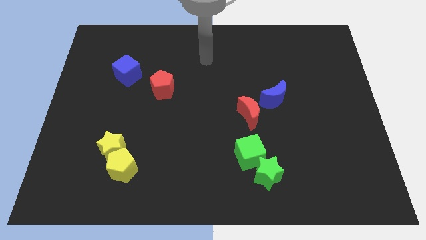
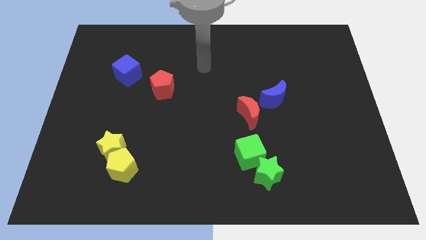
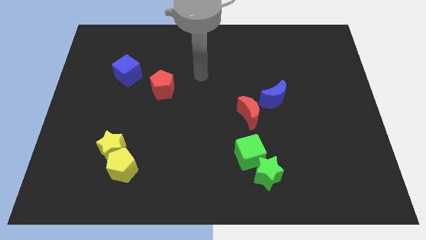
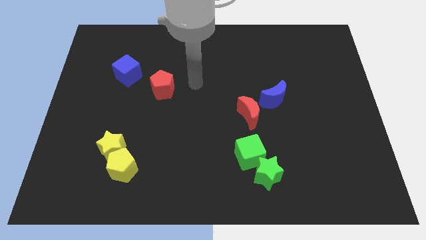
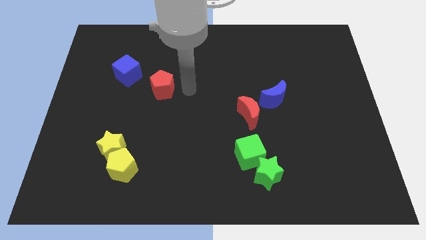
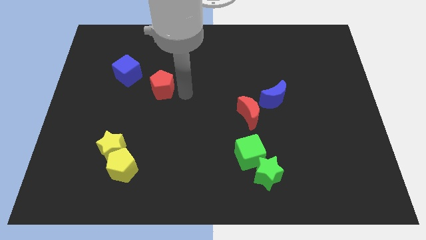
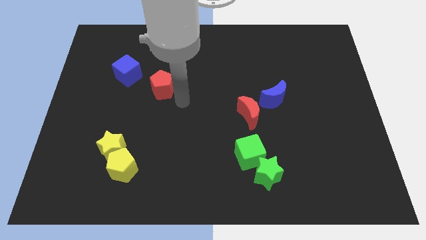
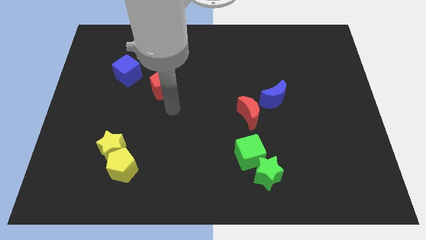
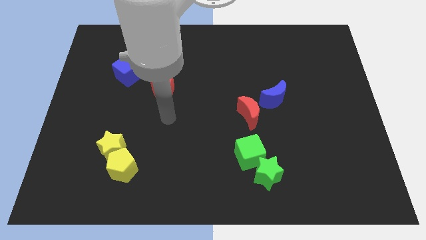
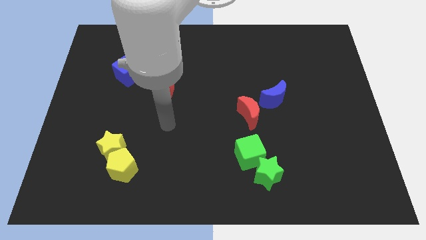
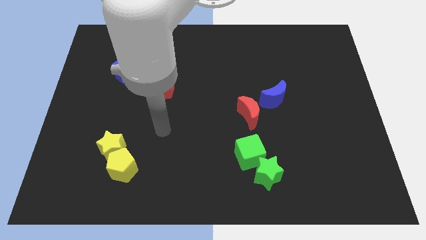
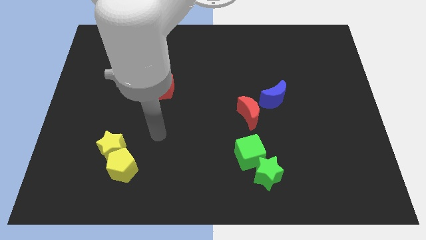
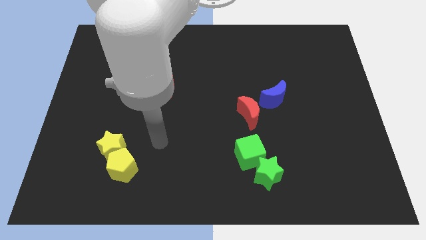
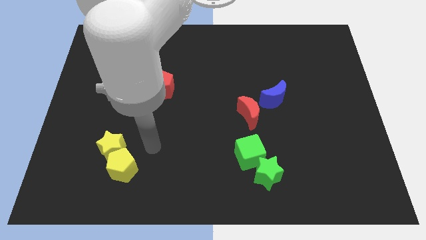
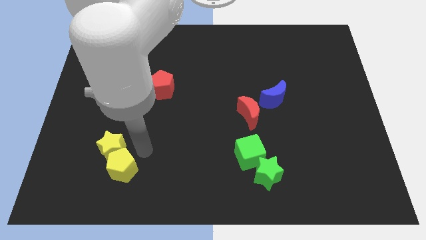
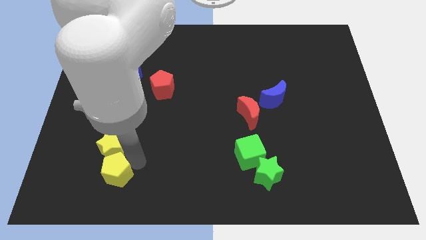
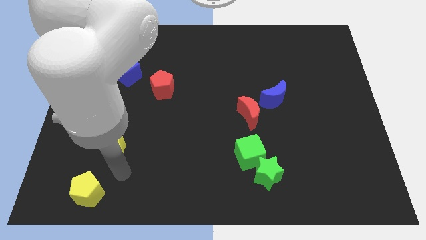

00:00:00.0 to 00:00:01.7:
pull the yellow star apart from the yellow pentagon

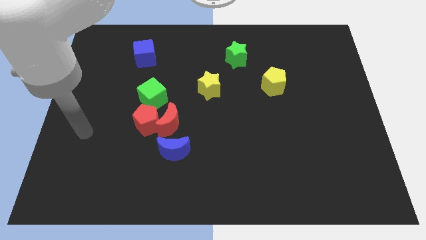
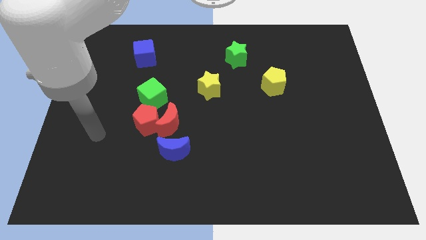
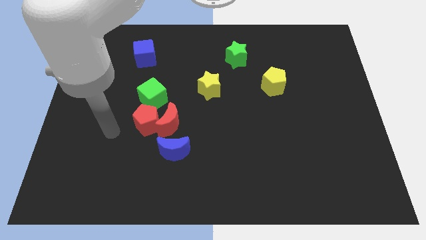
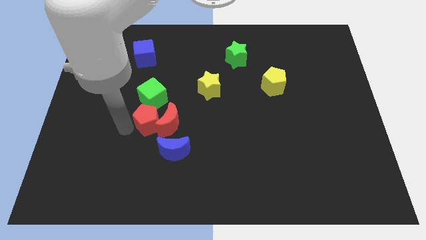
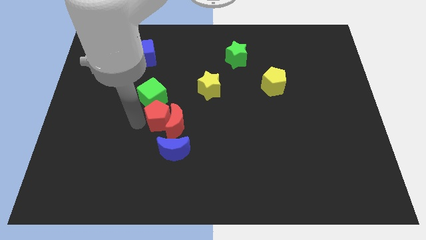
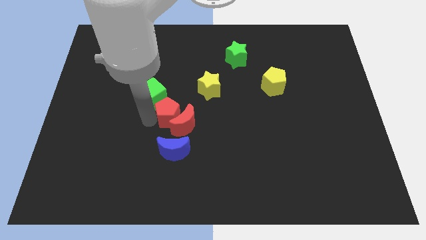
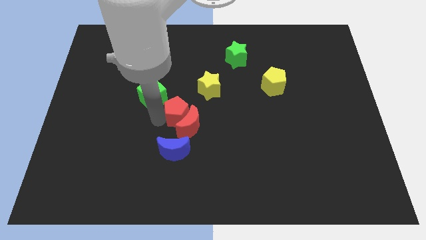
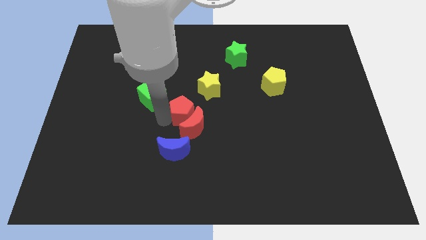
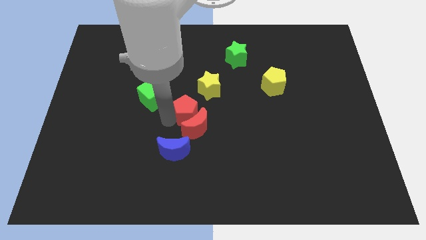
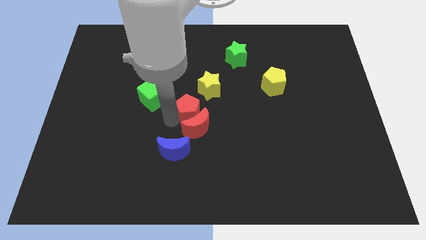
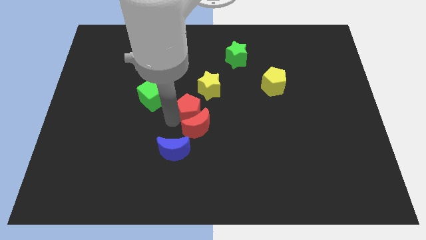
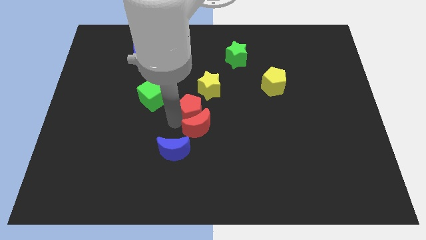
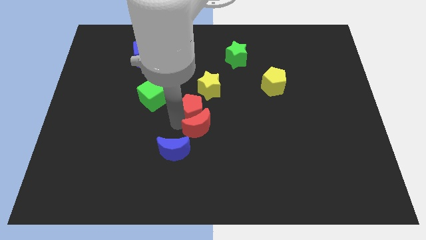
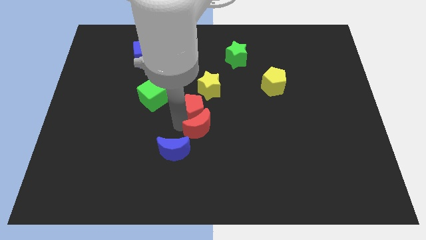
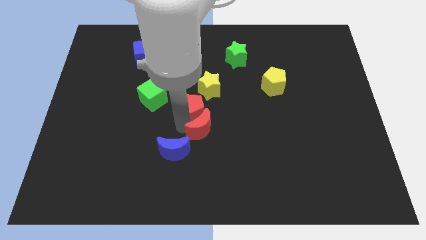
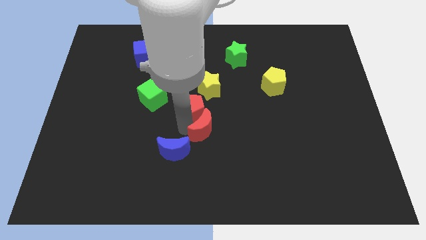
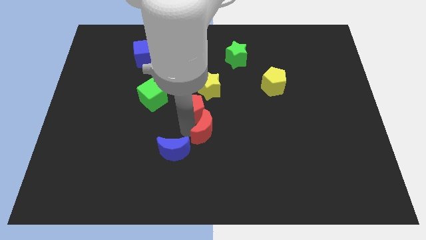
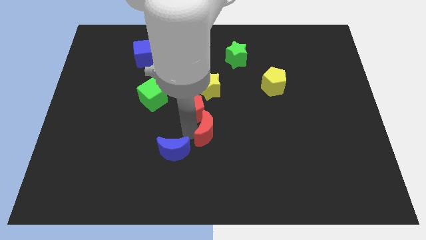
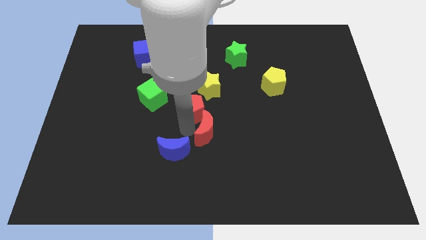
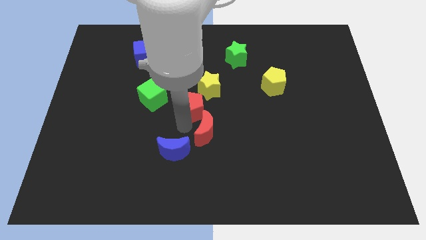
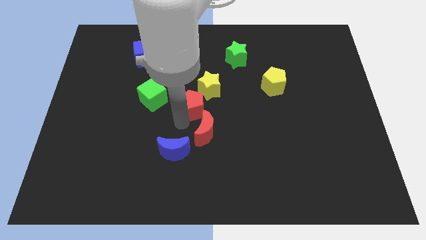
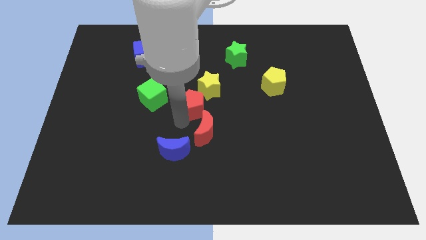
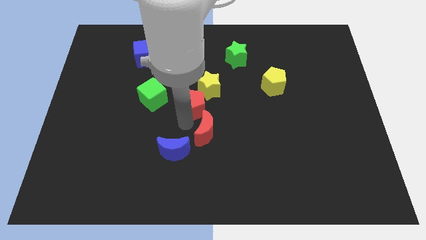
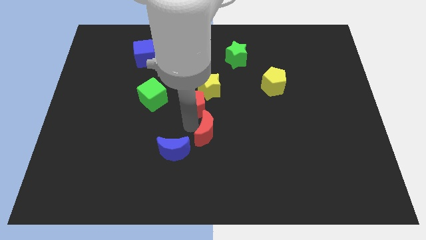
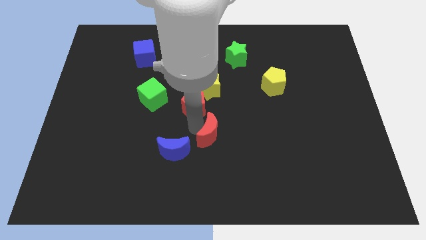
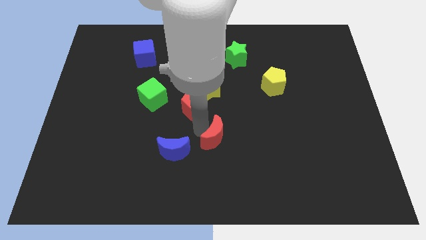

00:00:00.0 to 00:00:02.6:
move the red moon away from the red pentagon, blue moon, and green cube

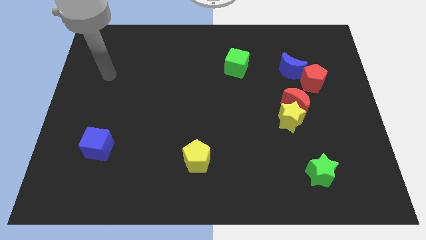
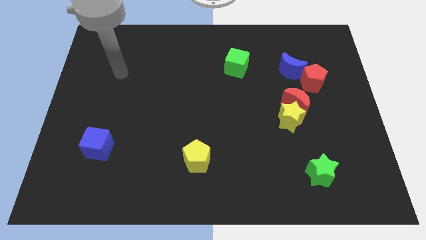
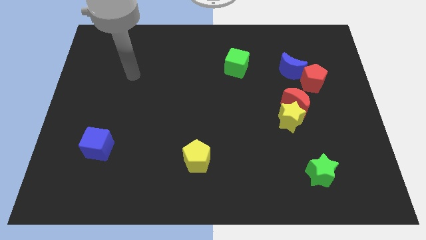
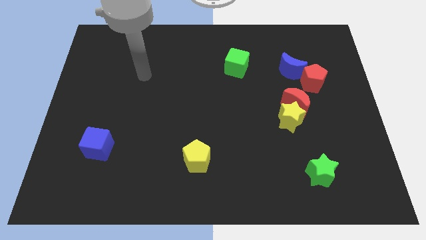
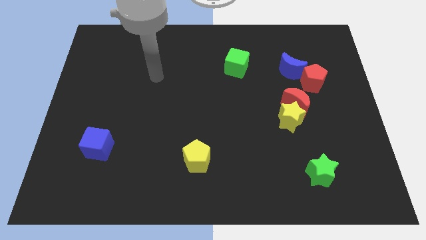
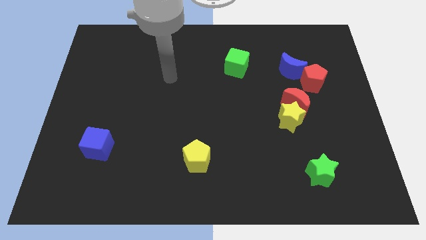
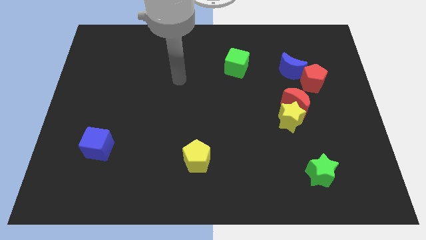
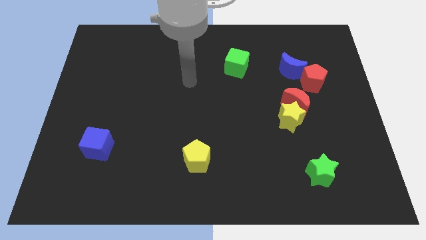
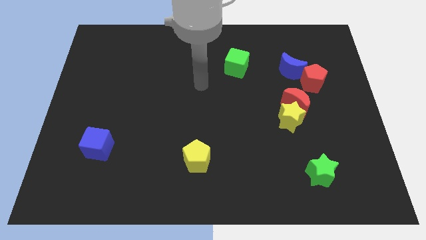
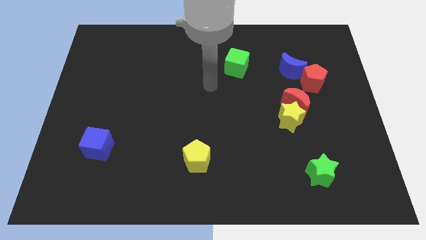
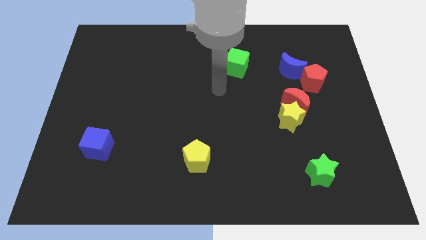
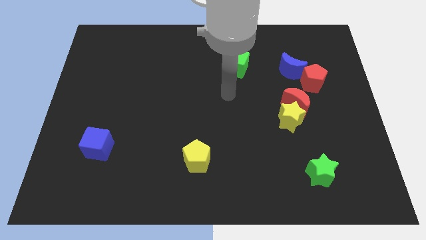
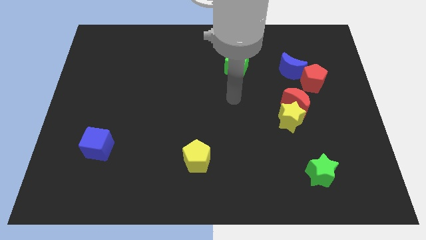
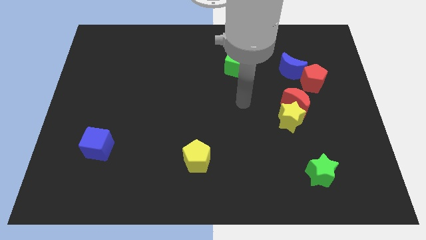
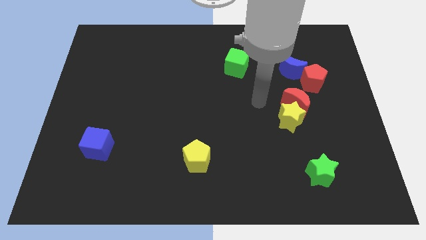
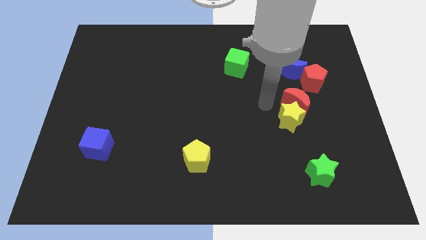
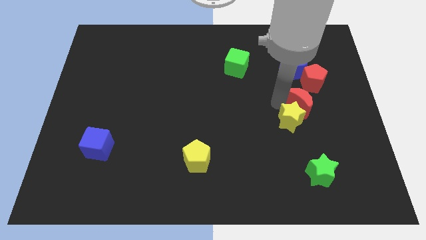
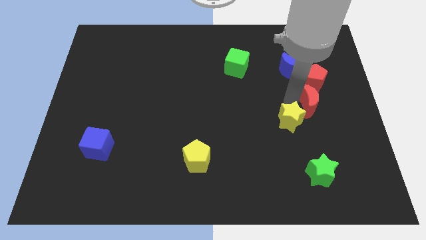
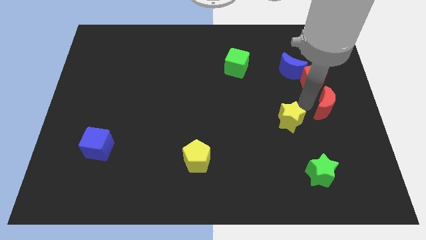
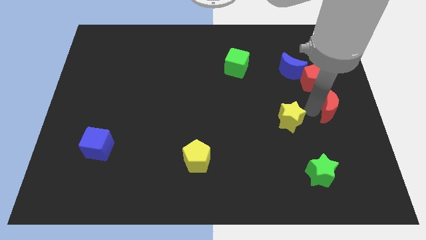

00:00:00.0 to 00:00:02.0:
pull the yellow star apart from the red moon

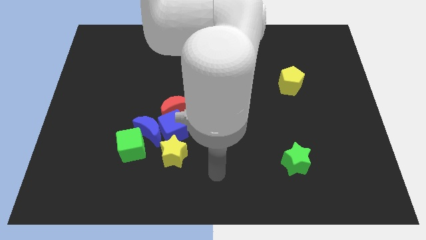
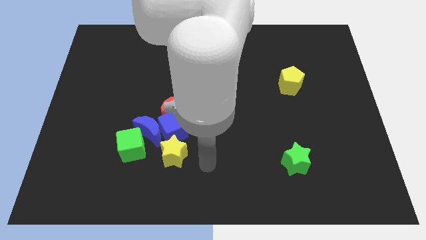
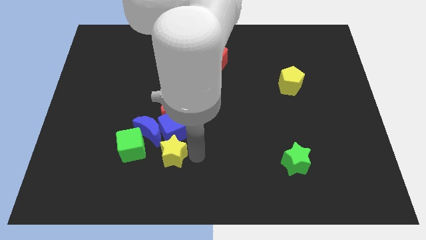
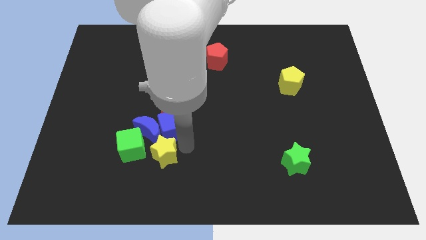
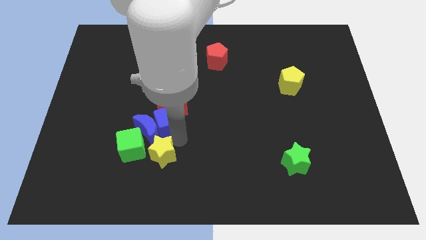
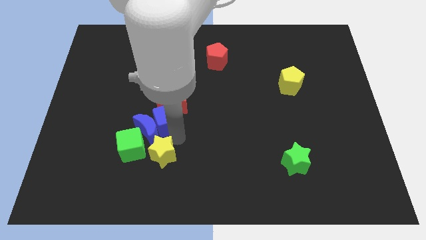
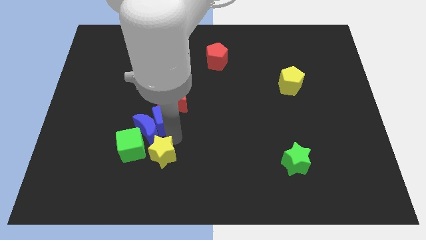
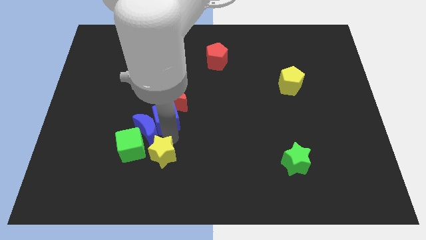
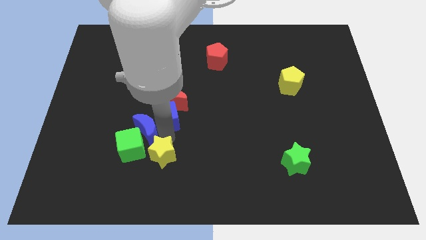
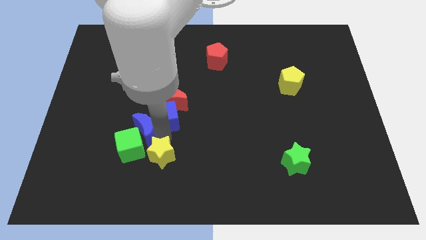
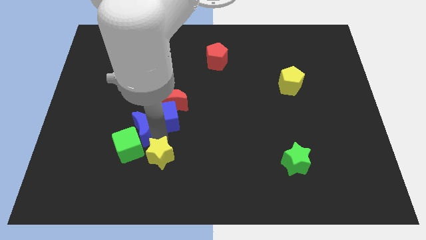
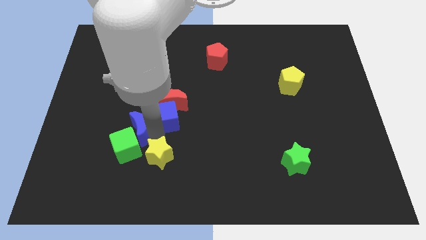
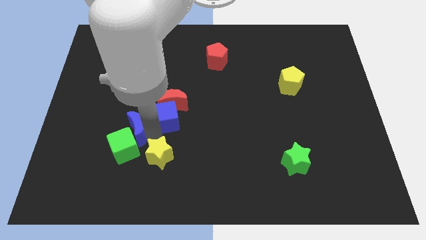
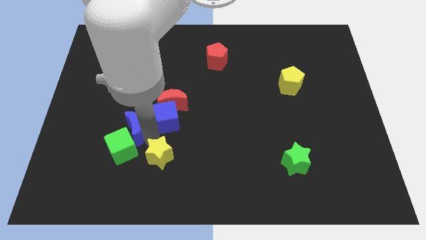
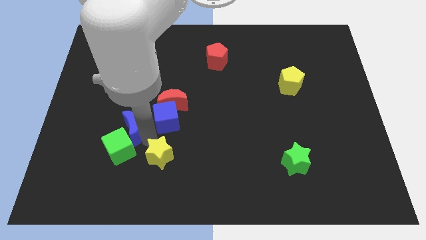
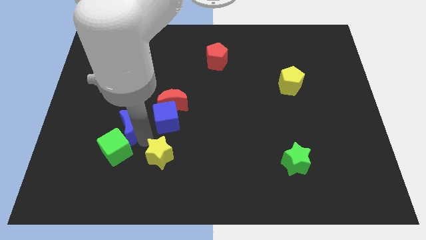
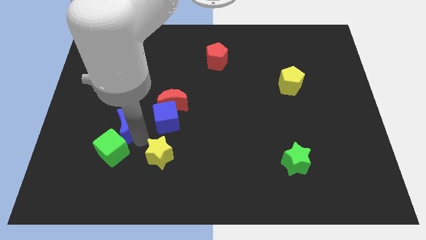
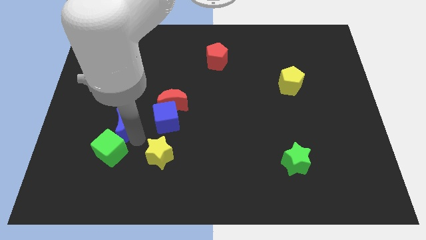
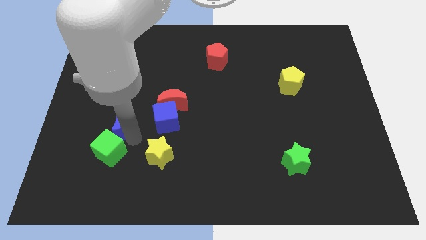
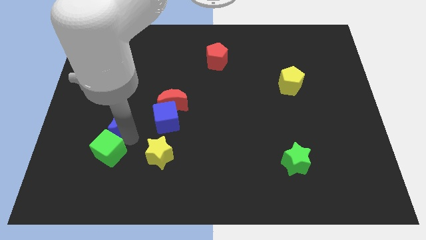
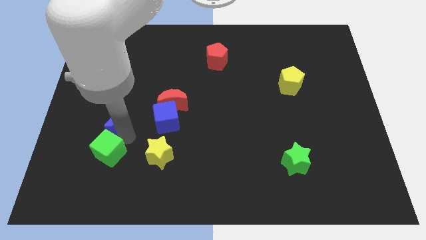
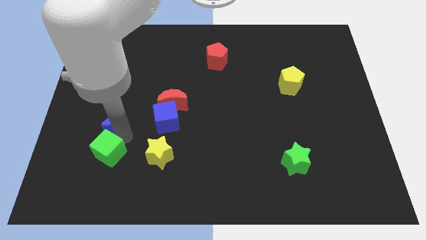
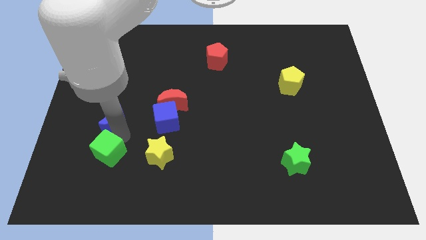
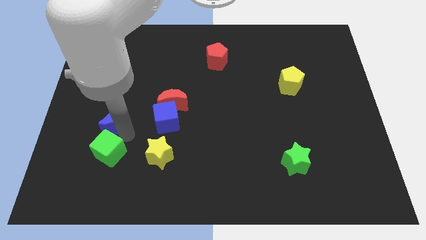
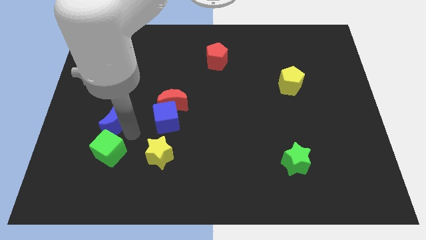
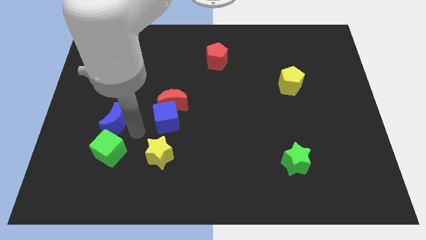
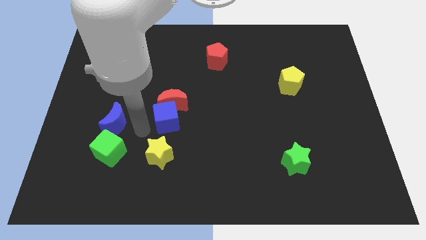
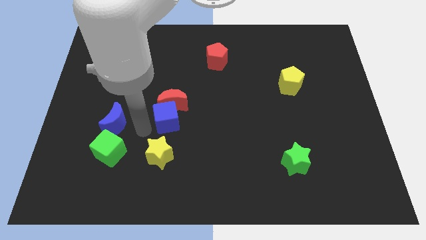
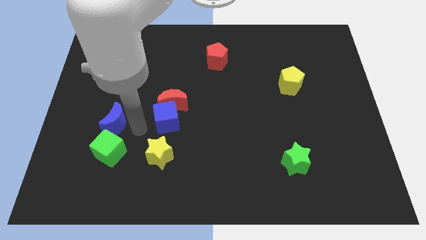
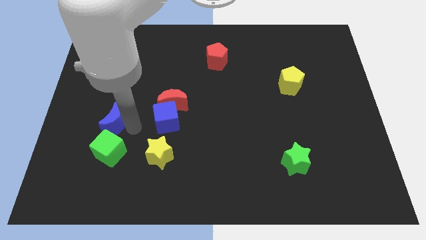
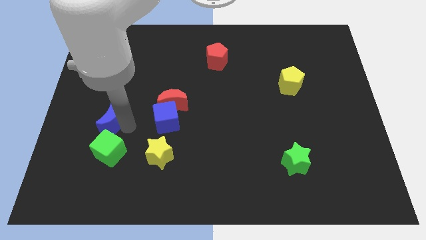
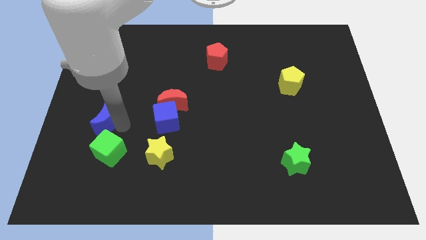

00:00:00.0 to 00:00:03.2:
move the blue moon away from the group
